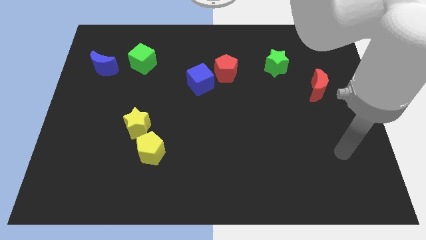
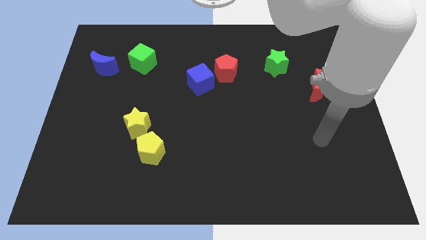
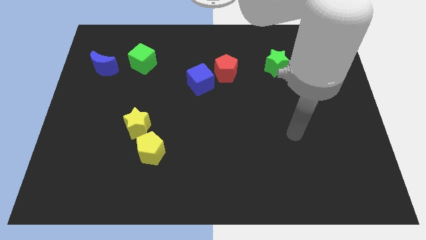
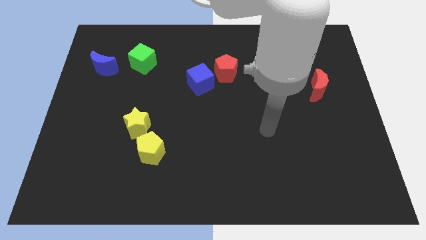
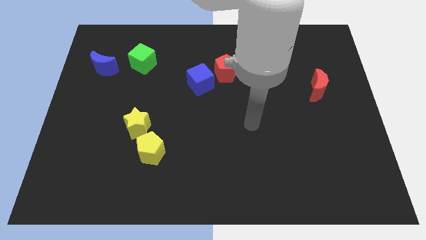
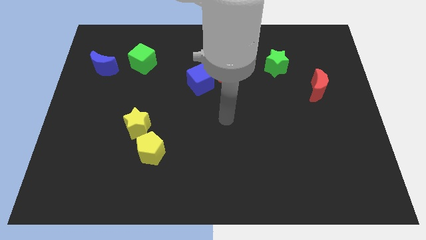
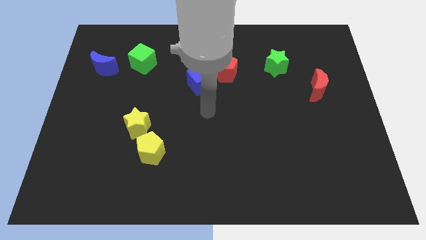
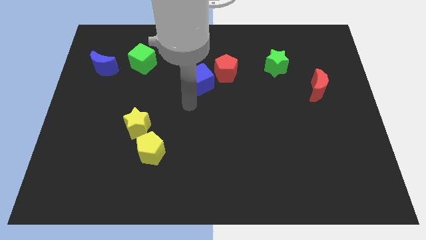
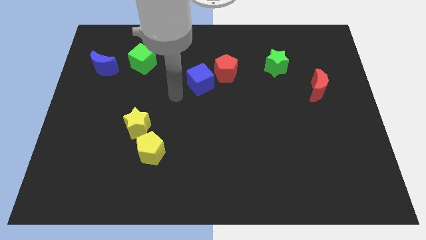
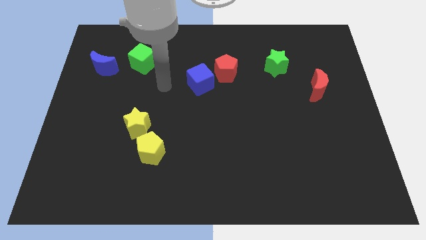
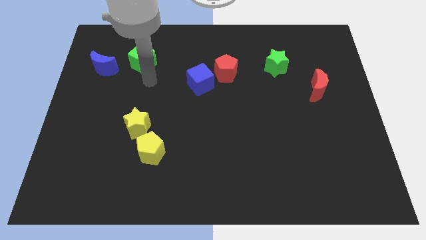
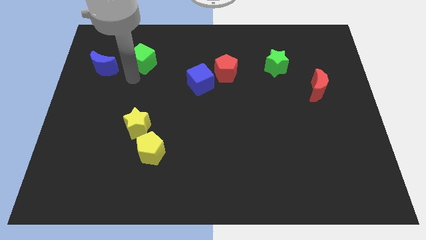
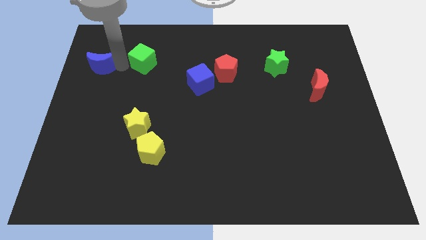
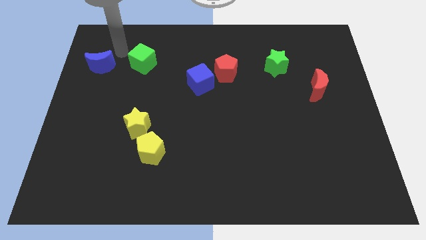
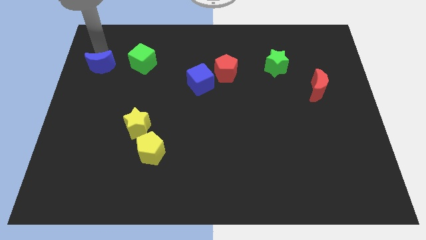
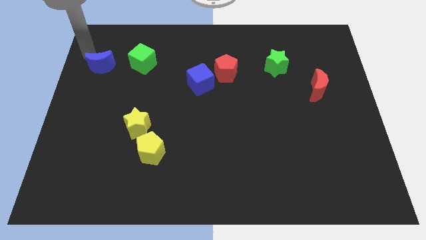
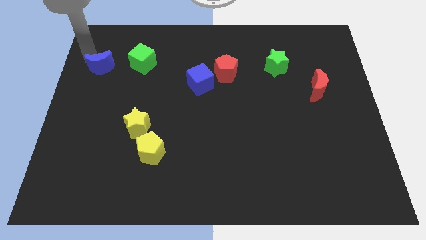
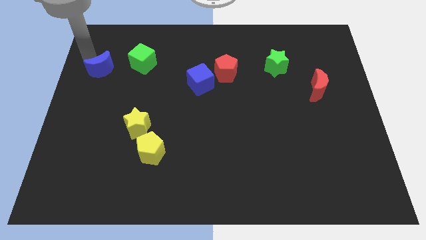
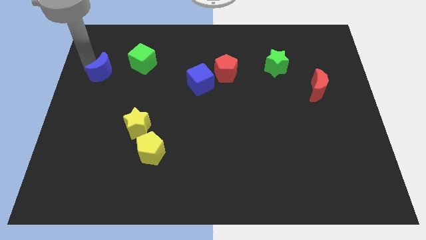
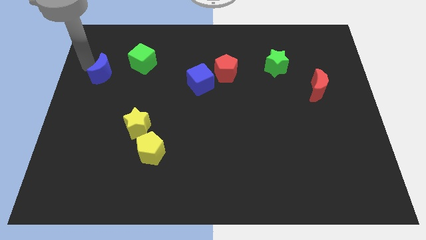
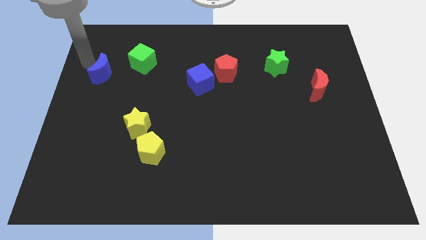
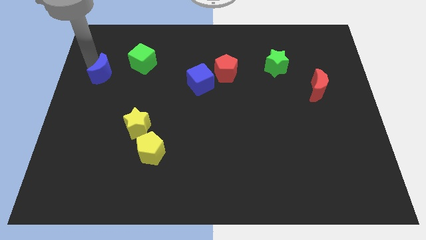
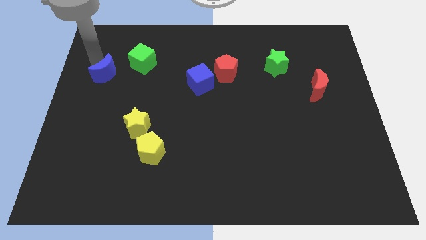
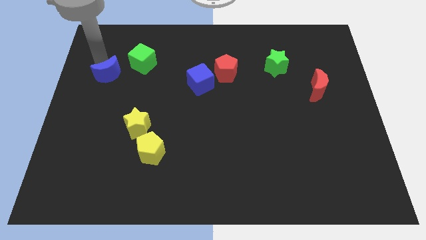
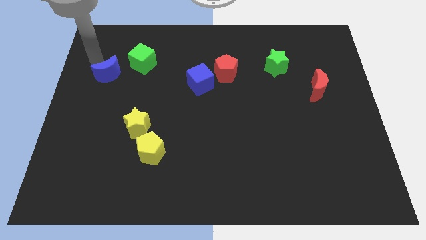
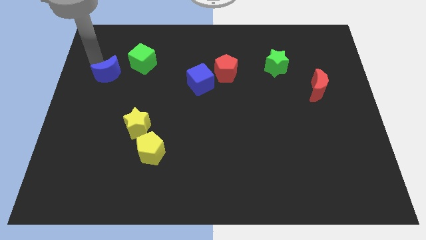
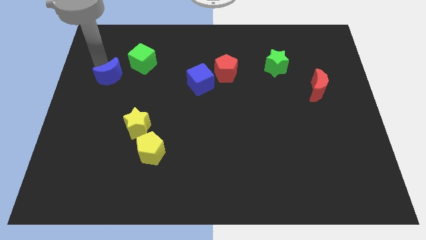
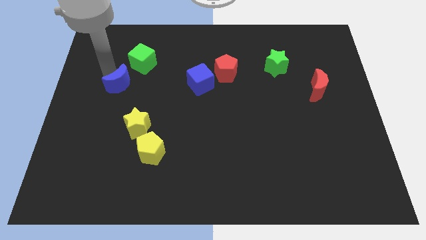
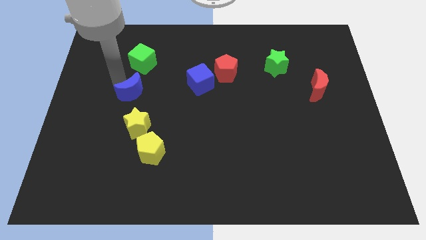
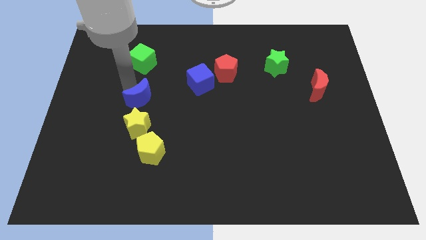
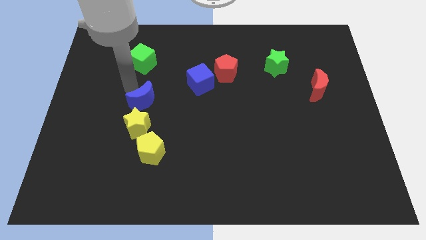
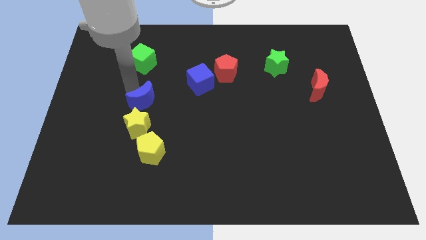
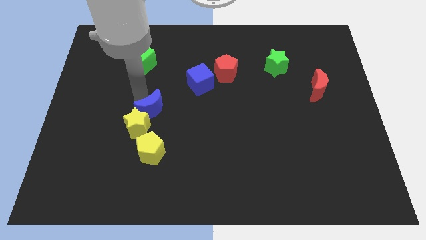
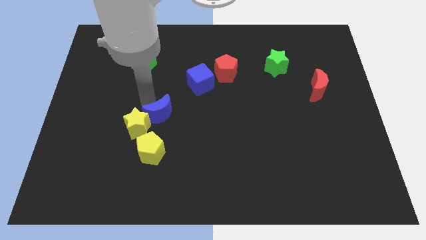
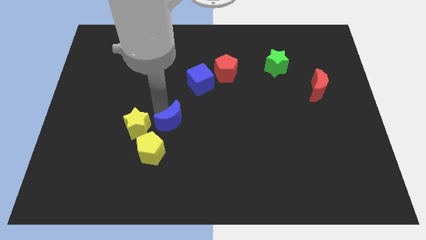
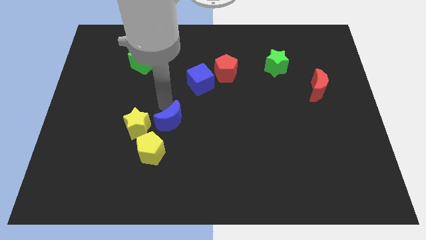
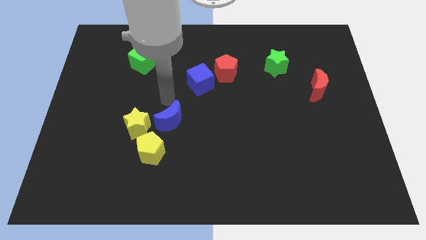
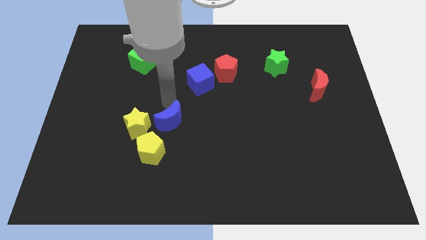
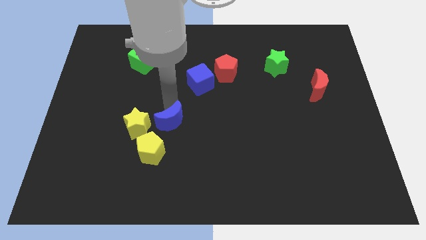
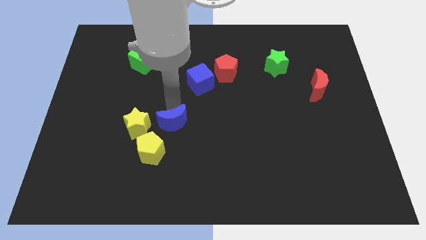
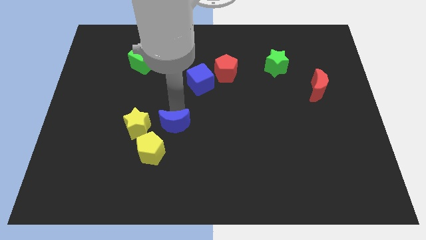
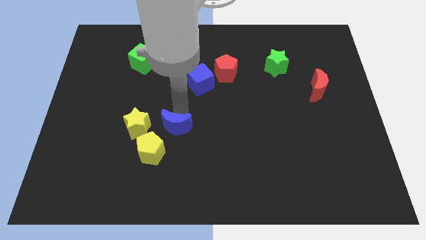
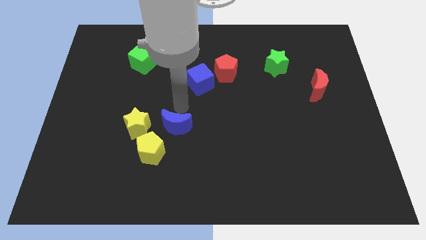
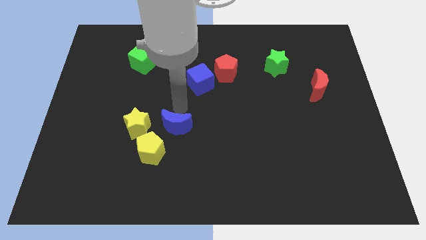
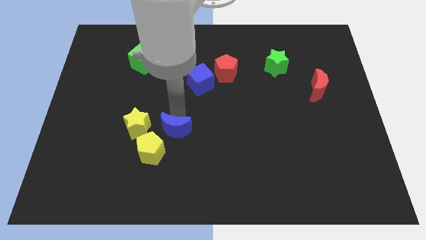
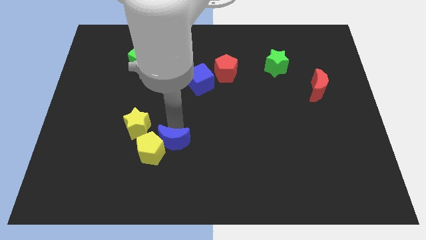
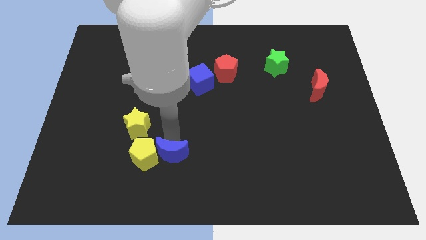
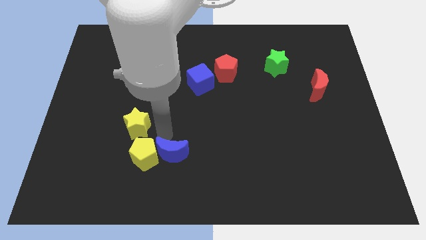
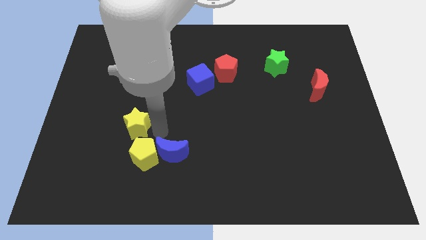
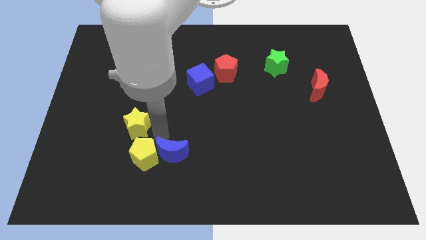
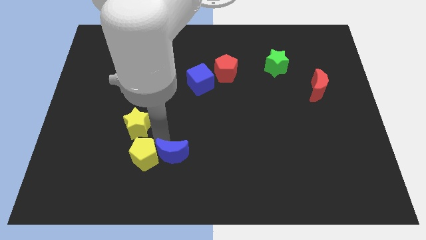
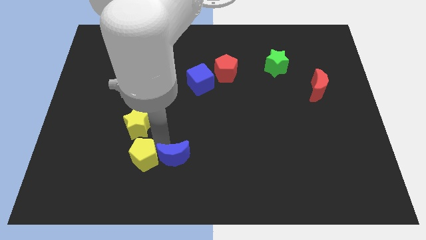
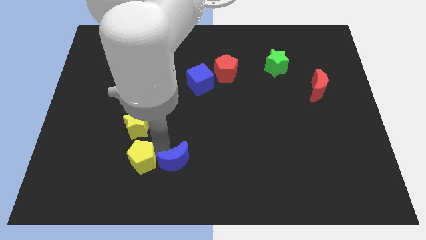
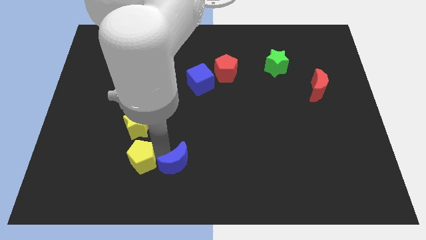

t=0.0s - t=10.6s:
move the blue moon to the bottom side
